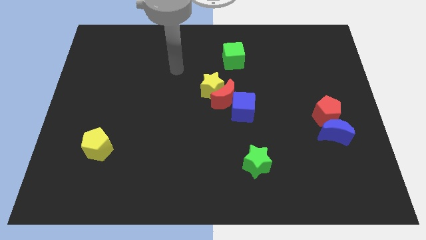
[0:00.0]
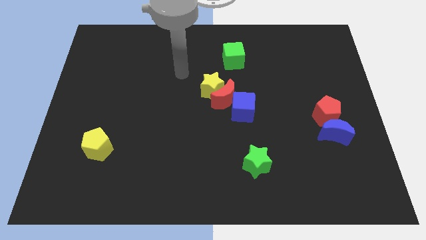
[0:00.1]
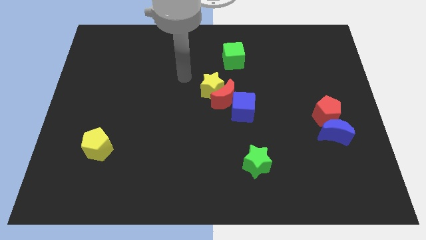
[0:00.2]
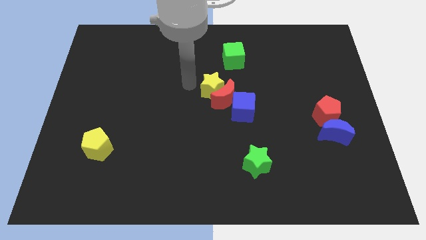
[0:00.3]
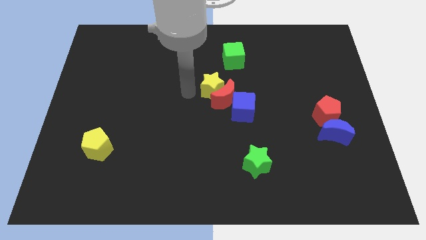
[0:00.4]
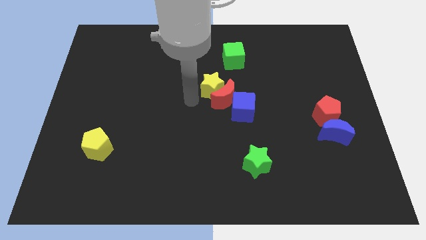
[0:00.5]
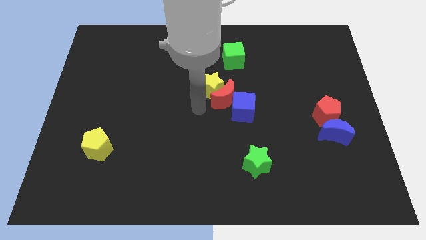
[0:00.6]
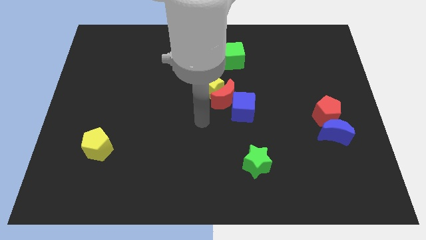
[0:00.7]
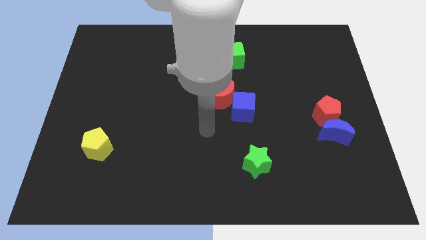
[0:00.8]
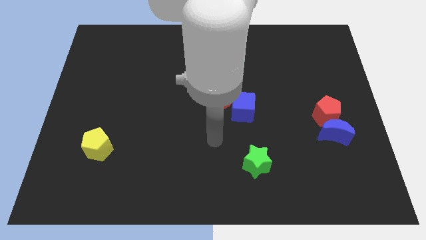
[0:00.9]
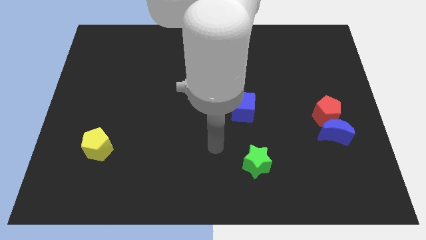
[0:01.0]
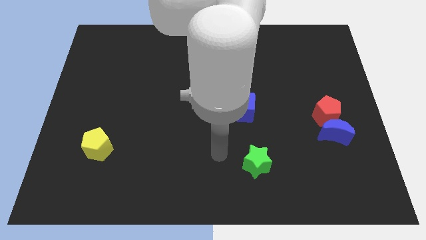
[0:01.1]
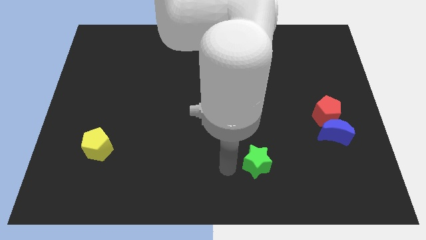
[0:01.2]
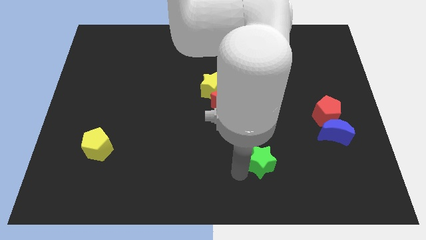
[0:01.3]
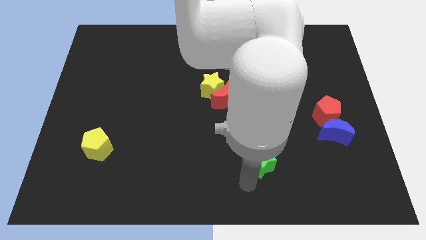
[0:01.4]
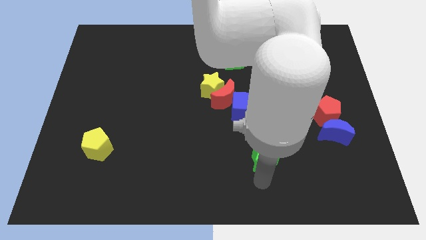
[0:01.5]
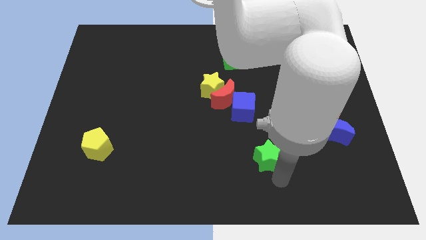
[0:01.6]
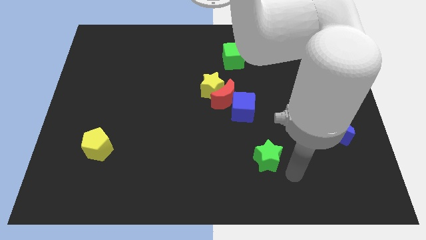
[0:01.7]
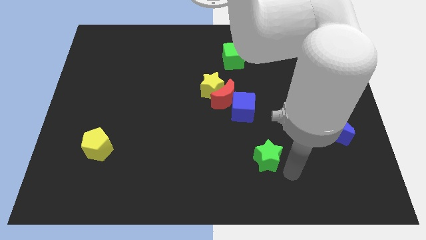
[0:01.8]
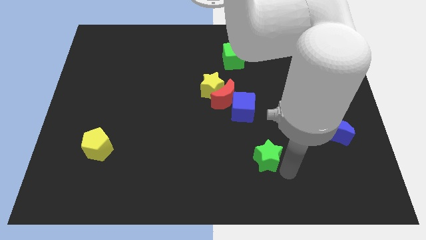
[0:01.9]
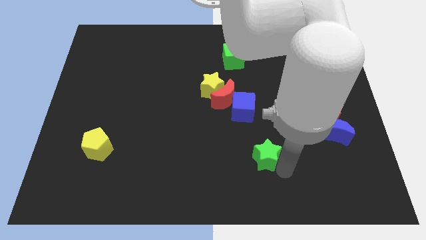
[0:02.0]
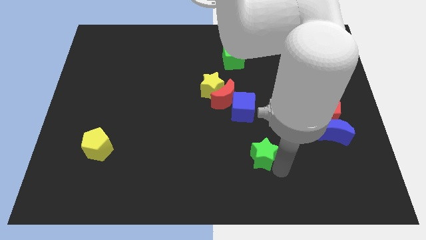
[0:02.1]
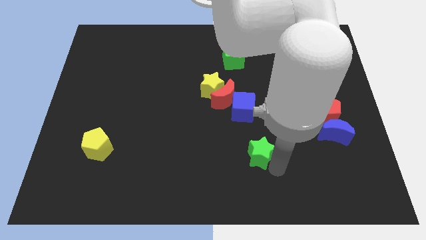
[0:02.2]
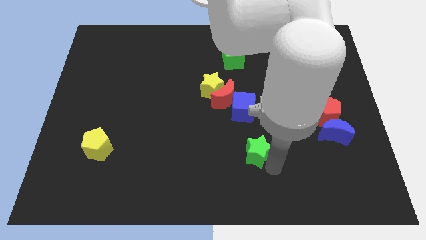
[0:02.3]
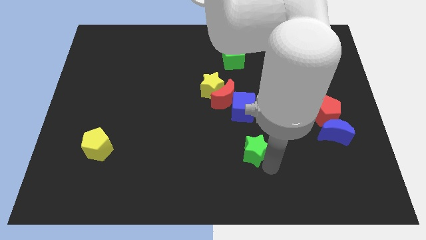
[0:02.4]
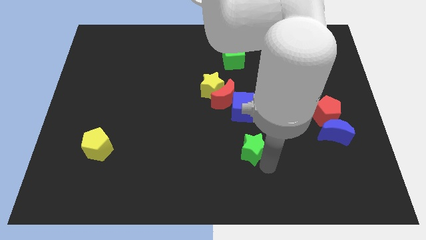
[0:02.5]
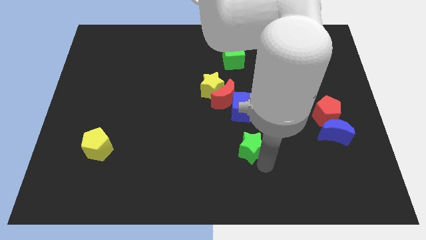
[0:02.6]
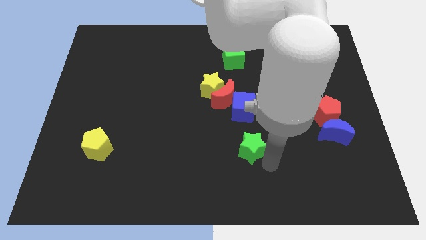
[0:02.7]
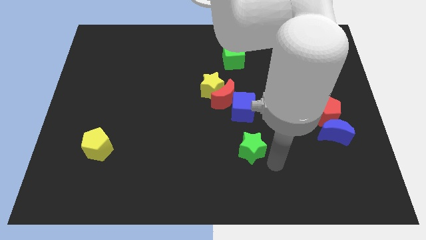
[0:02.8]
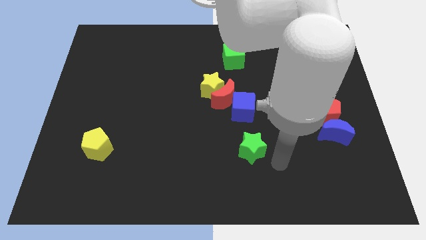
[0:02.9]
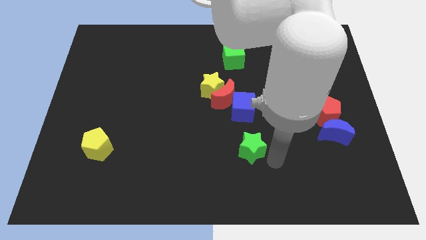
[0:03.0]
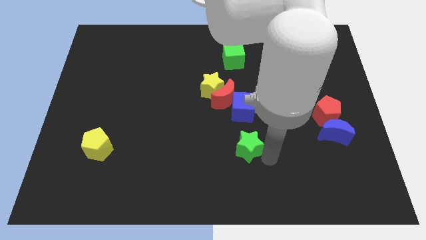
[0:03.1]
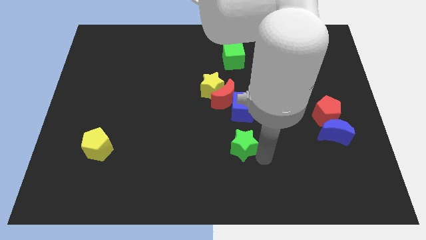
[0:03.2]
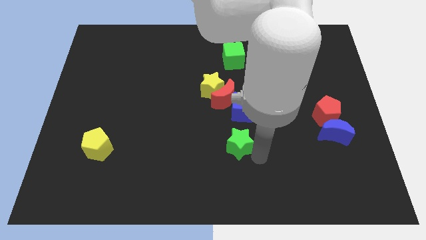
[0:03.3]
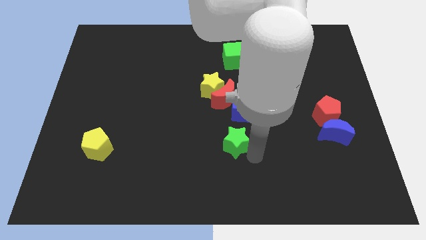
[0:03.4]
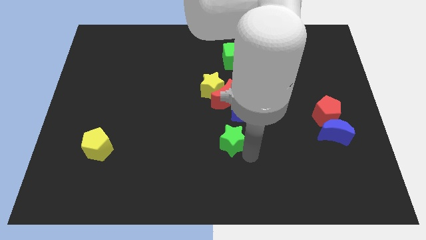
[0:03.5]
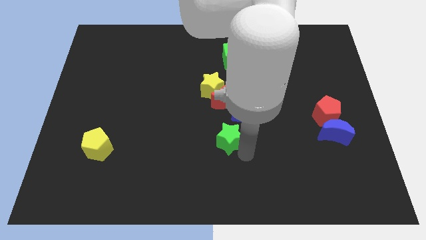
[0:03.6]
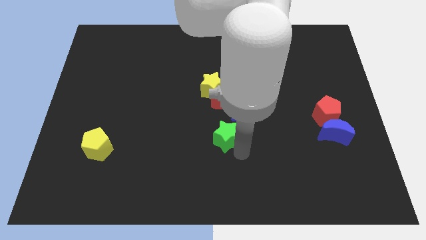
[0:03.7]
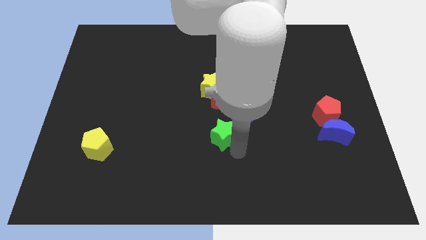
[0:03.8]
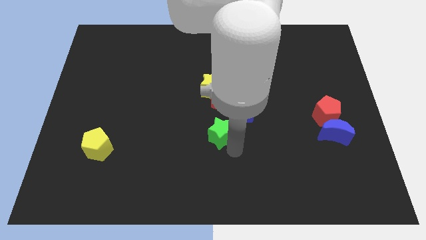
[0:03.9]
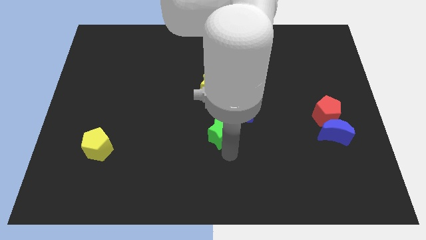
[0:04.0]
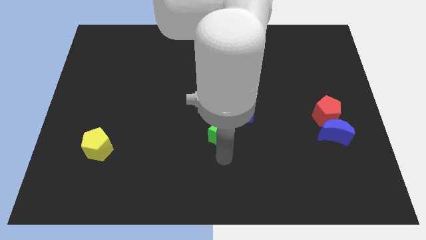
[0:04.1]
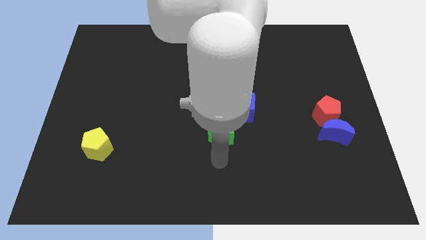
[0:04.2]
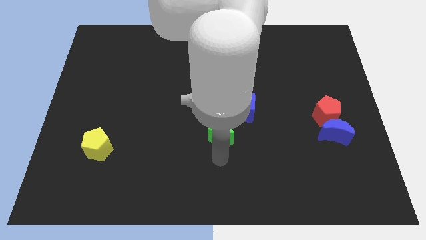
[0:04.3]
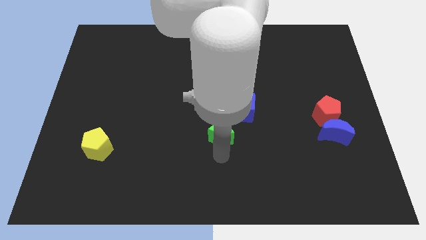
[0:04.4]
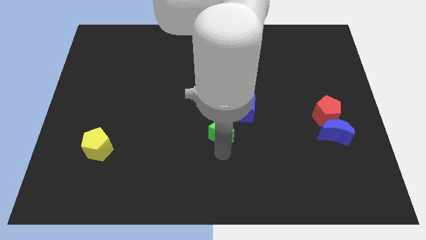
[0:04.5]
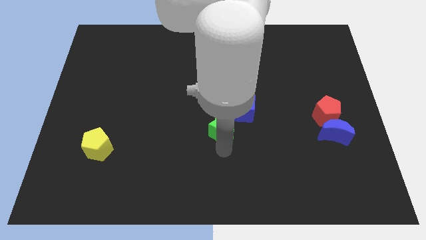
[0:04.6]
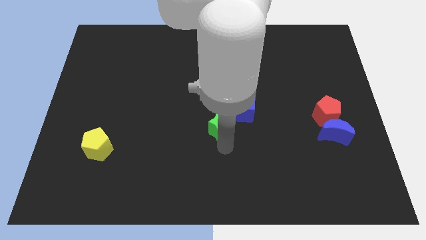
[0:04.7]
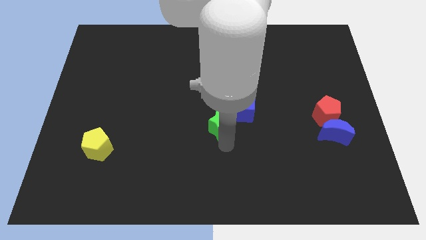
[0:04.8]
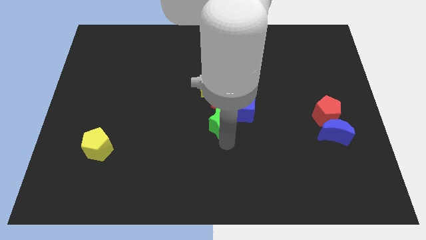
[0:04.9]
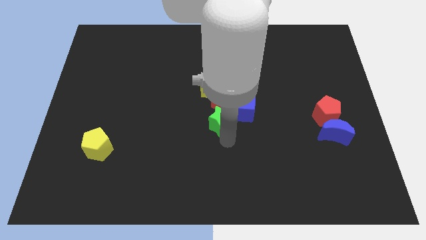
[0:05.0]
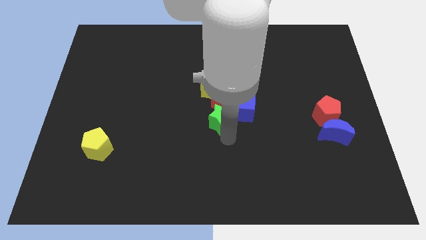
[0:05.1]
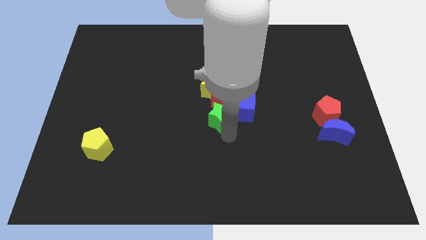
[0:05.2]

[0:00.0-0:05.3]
put the green star next to the red moon

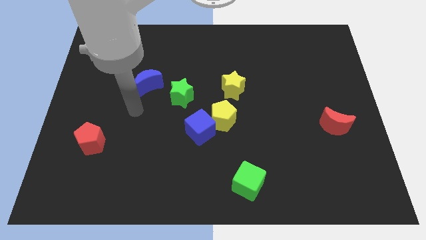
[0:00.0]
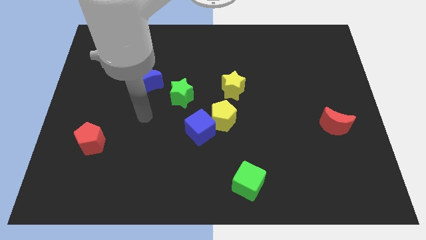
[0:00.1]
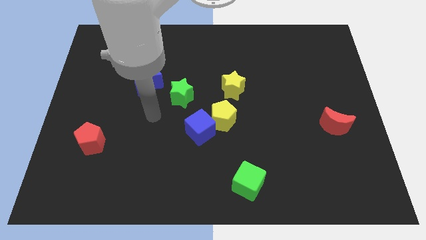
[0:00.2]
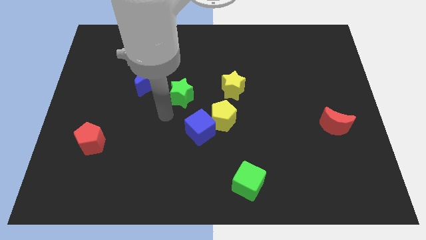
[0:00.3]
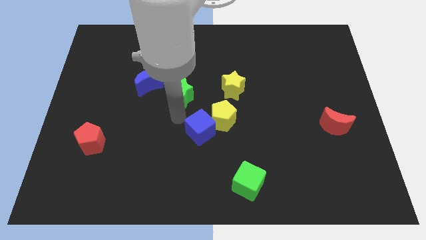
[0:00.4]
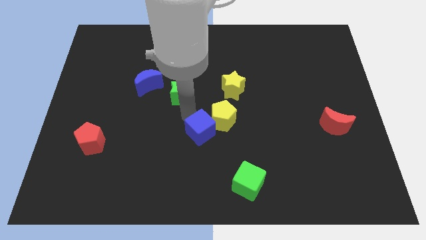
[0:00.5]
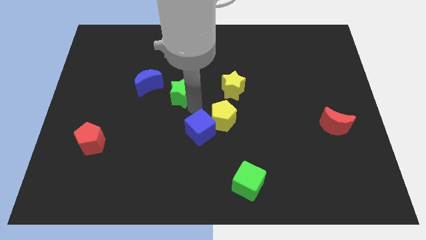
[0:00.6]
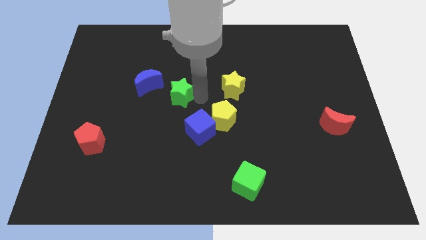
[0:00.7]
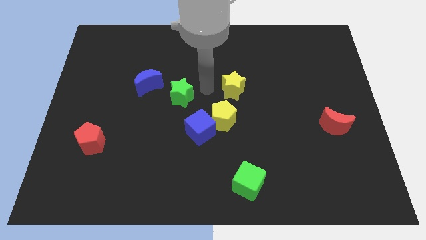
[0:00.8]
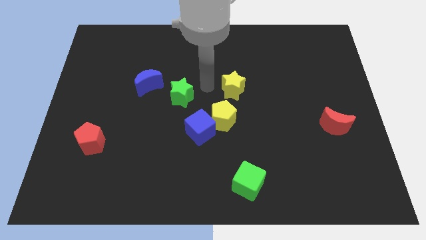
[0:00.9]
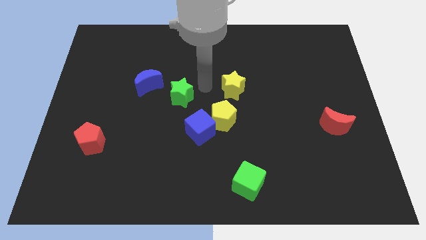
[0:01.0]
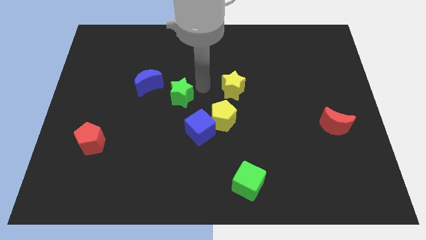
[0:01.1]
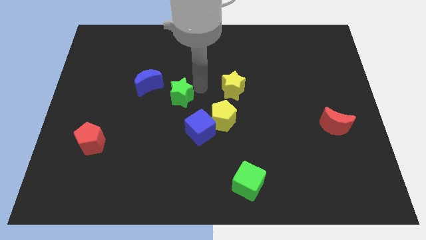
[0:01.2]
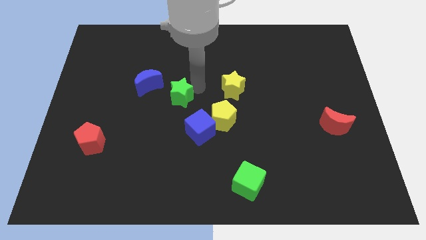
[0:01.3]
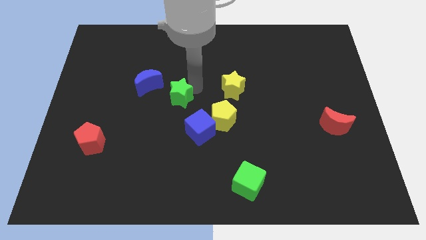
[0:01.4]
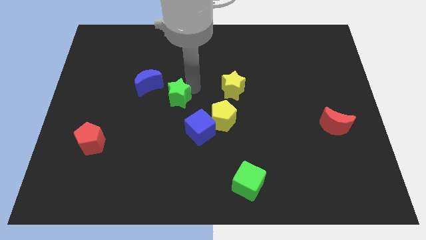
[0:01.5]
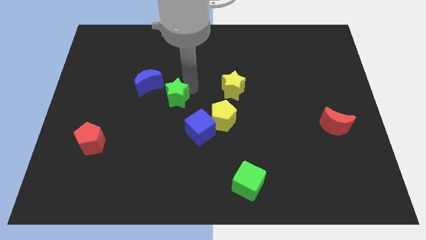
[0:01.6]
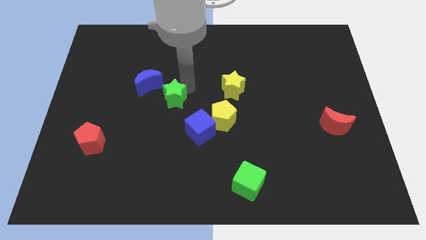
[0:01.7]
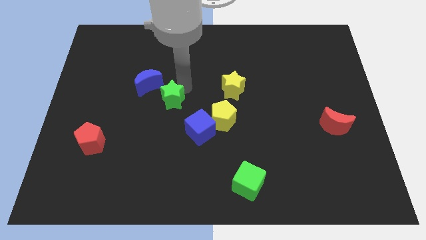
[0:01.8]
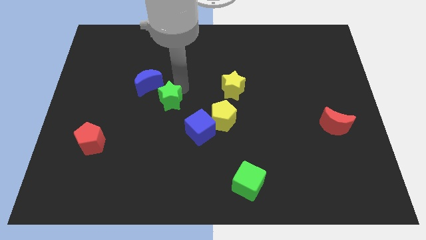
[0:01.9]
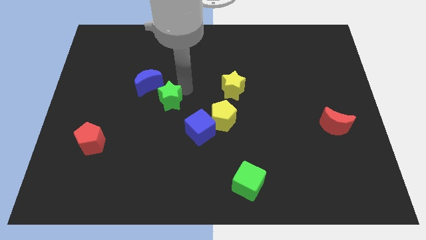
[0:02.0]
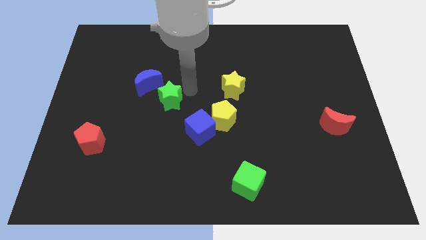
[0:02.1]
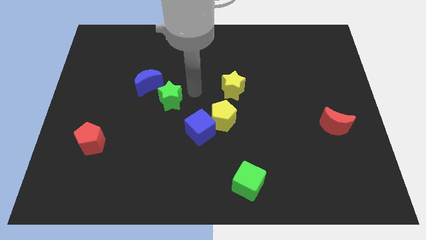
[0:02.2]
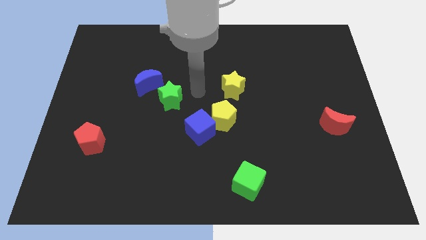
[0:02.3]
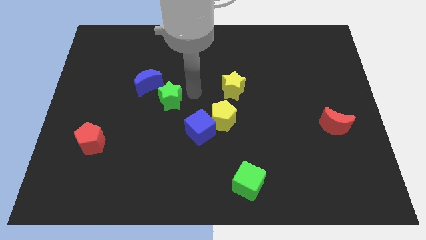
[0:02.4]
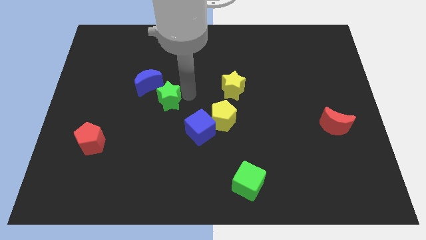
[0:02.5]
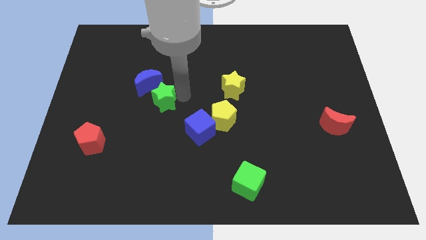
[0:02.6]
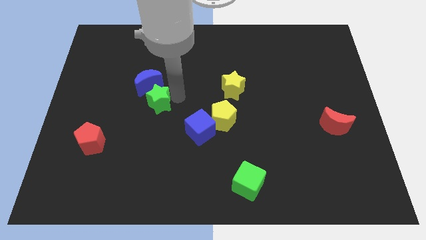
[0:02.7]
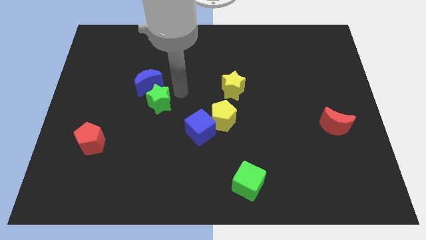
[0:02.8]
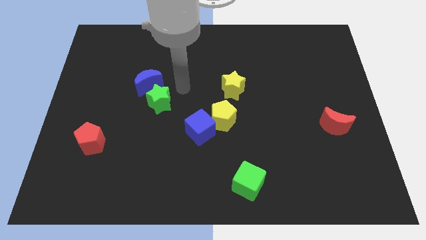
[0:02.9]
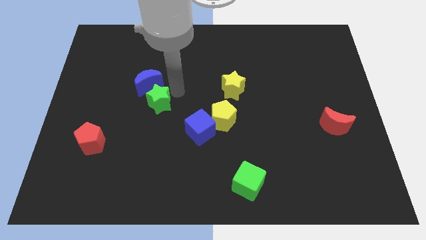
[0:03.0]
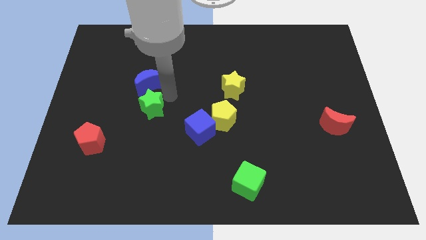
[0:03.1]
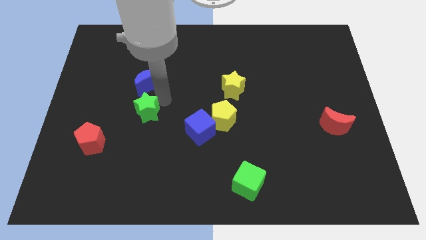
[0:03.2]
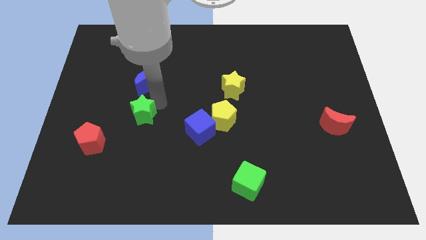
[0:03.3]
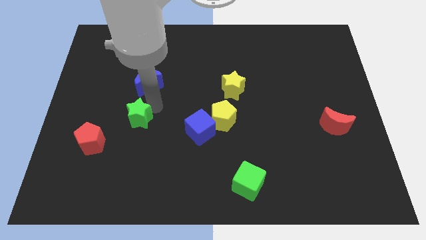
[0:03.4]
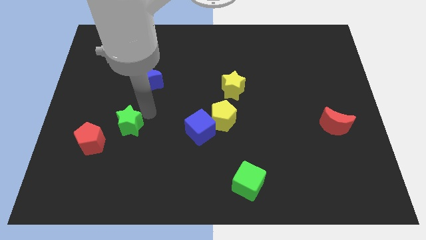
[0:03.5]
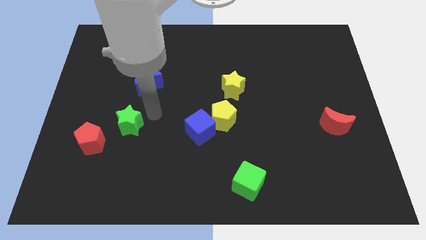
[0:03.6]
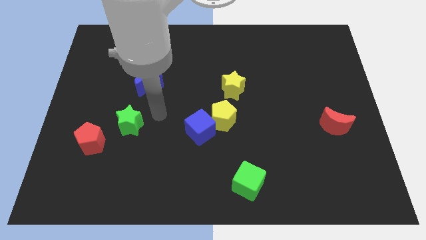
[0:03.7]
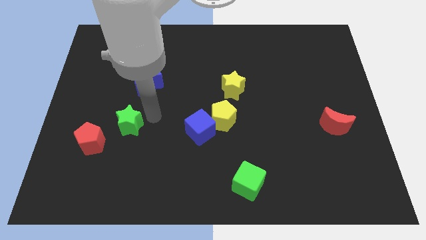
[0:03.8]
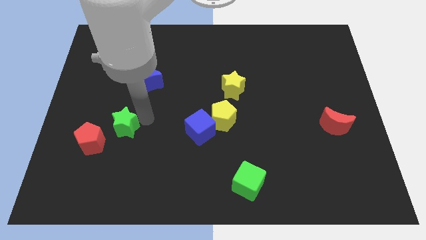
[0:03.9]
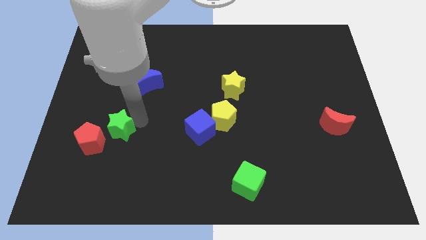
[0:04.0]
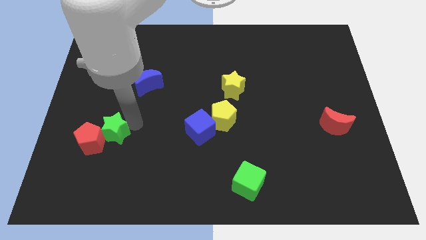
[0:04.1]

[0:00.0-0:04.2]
move the green star close to the red pentagon
